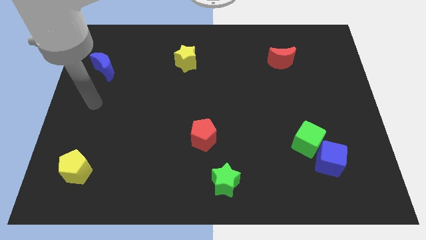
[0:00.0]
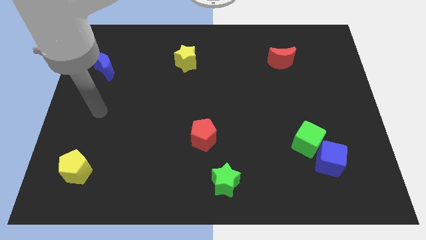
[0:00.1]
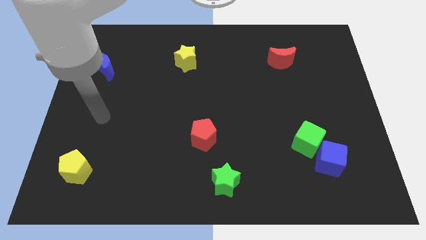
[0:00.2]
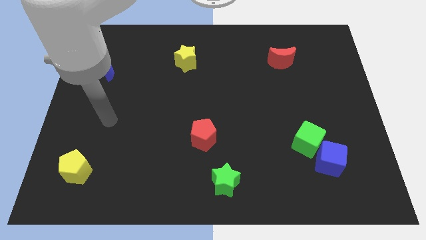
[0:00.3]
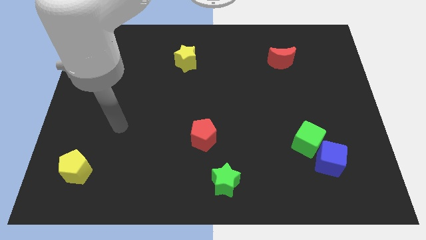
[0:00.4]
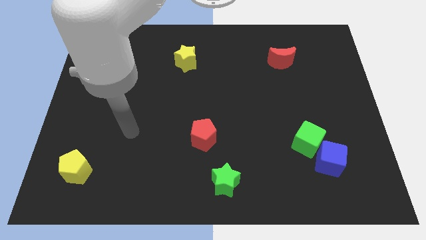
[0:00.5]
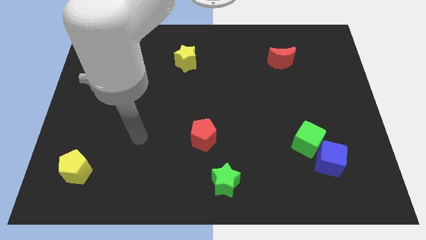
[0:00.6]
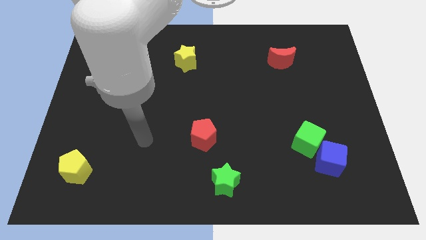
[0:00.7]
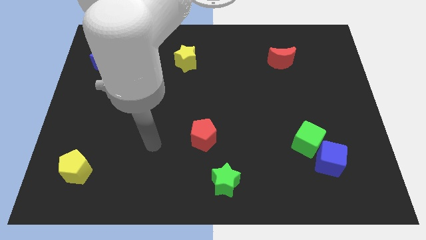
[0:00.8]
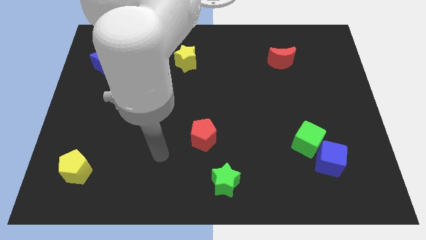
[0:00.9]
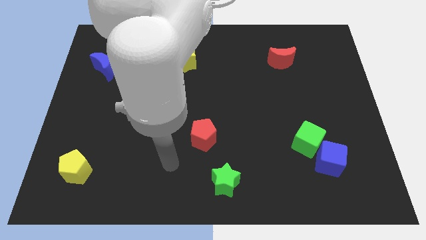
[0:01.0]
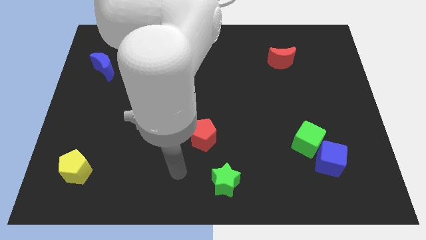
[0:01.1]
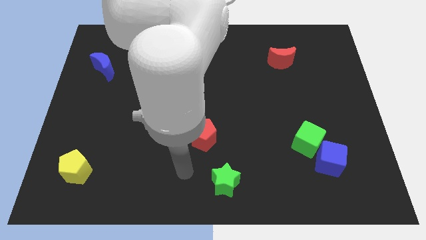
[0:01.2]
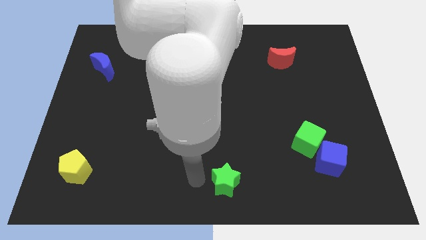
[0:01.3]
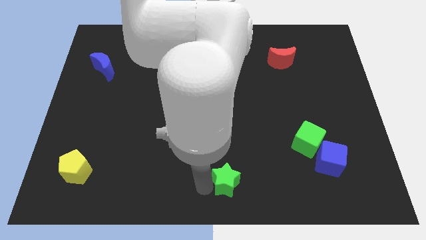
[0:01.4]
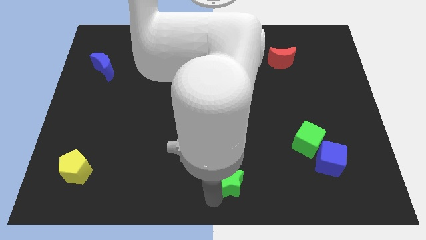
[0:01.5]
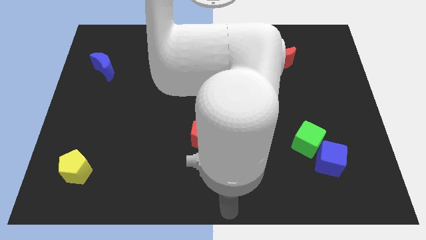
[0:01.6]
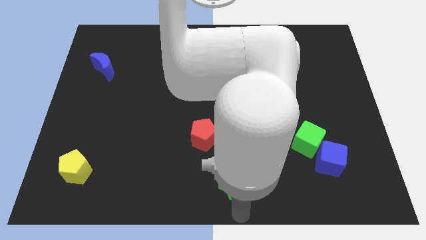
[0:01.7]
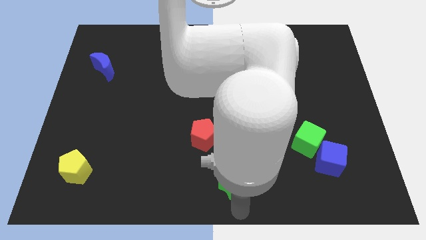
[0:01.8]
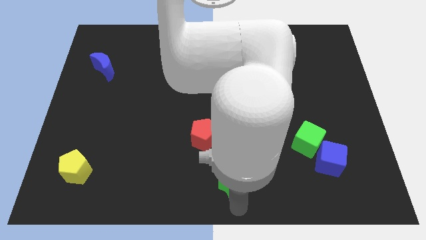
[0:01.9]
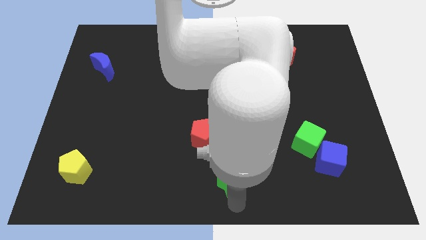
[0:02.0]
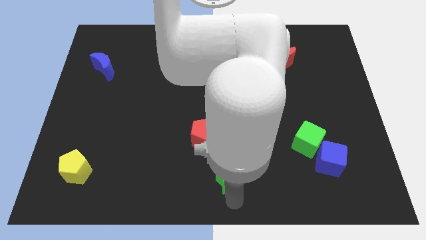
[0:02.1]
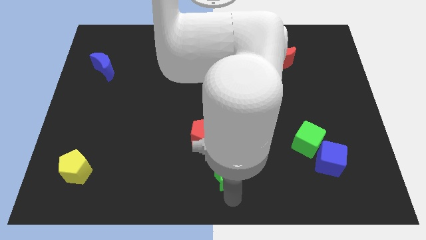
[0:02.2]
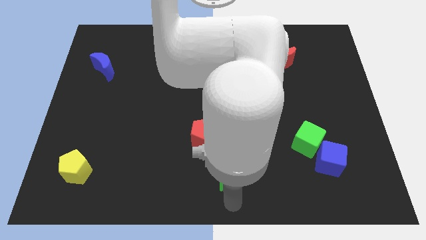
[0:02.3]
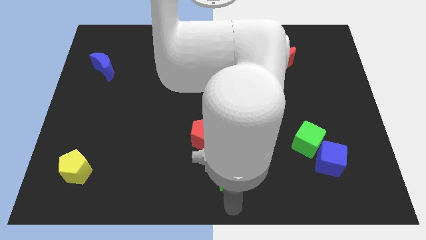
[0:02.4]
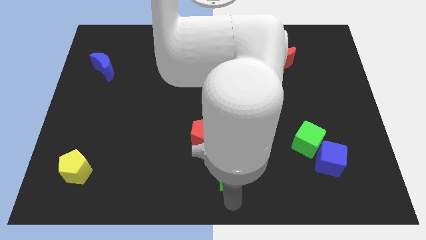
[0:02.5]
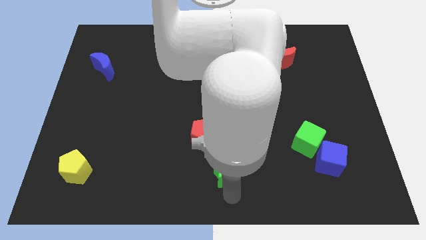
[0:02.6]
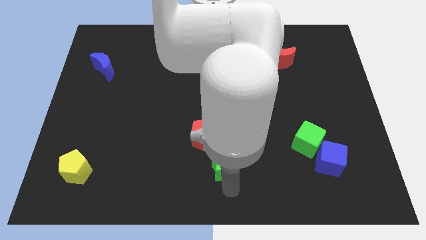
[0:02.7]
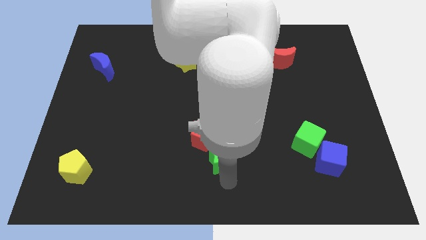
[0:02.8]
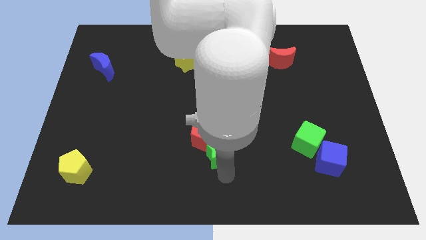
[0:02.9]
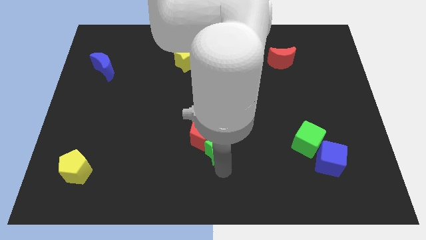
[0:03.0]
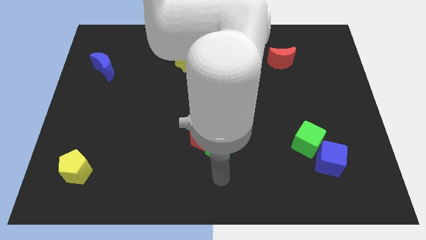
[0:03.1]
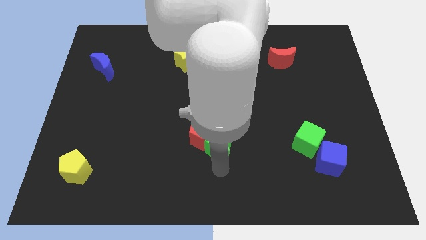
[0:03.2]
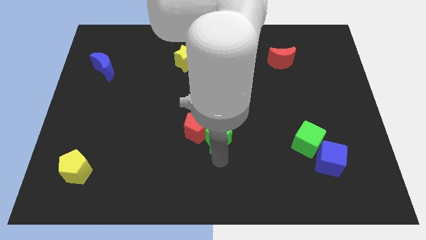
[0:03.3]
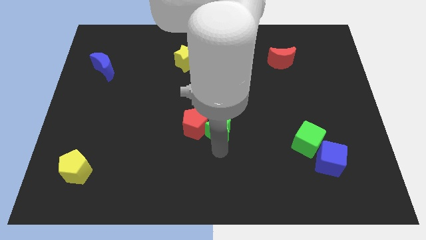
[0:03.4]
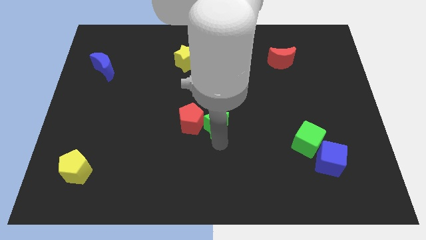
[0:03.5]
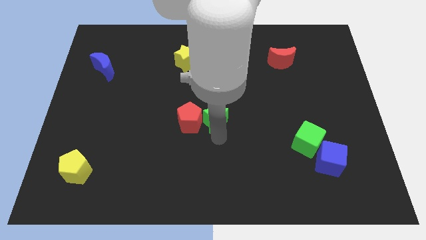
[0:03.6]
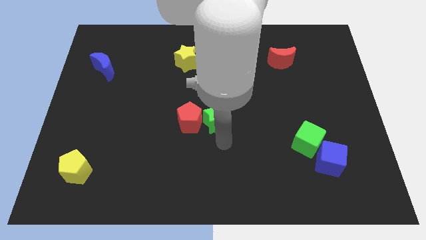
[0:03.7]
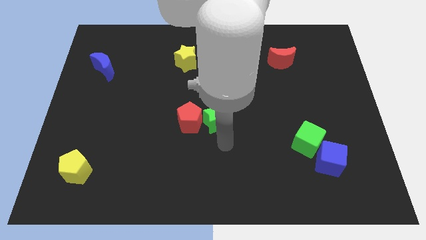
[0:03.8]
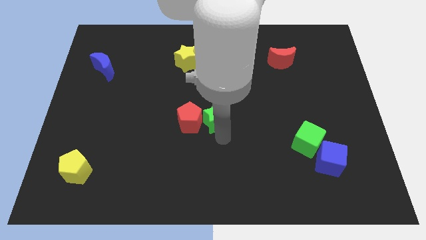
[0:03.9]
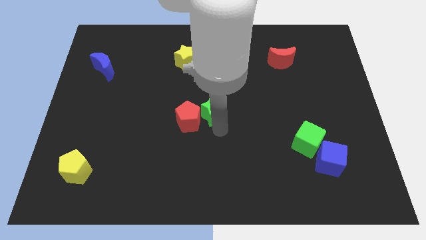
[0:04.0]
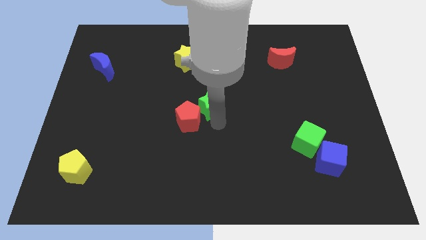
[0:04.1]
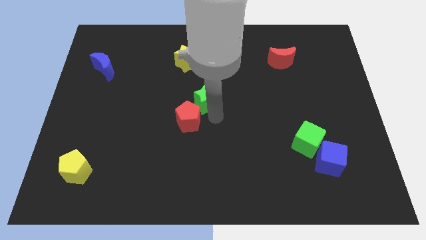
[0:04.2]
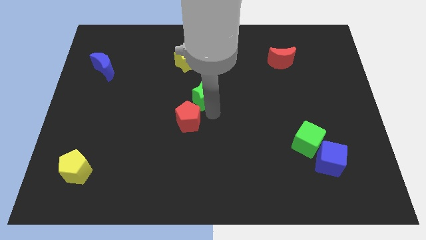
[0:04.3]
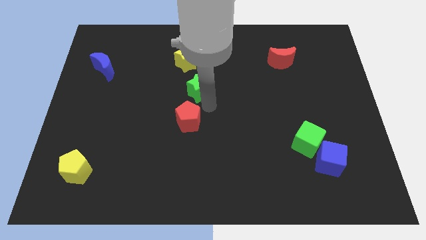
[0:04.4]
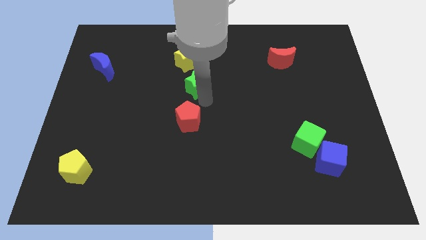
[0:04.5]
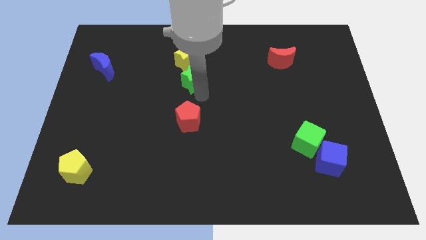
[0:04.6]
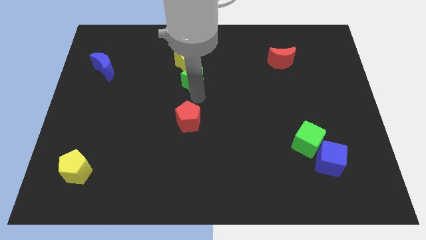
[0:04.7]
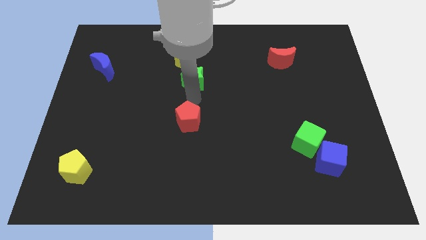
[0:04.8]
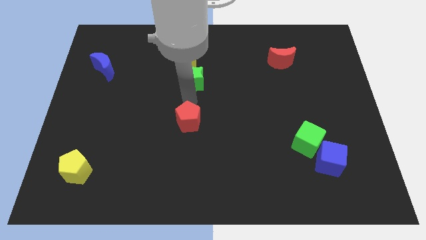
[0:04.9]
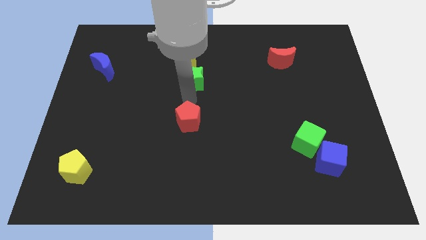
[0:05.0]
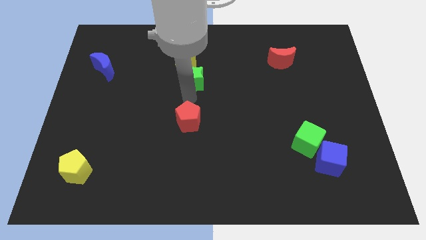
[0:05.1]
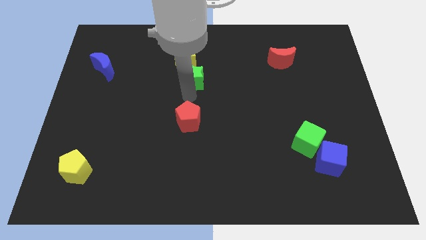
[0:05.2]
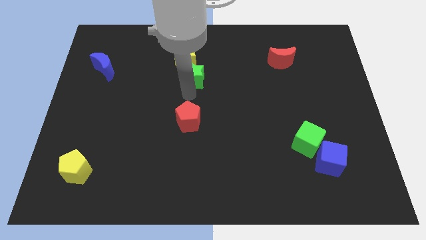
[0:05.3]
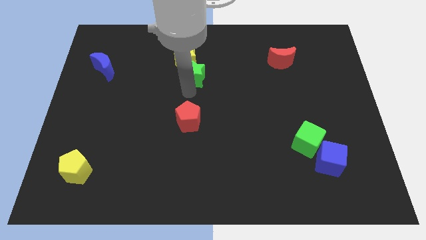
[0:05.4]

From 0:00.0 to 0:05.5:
slide the green star towards the yellow star
